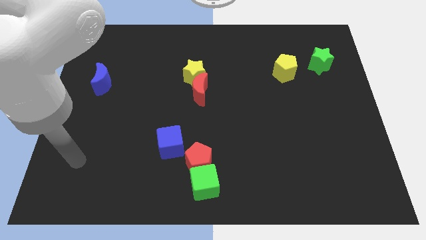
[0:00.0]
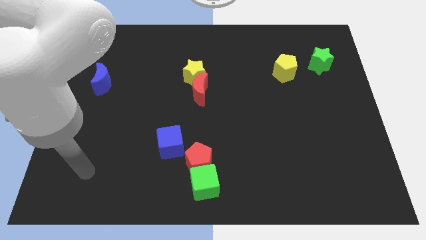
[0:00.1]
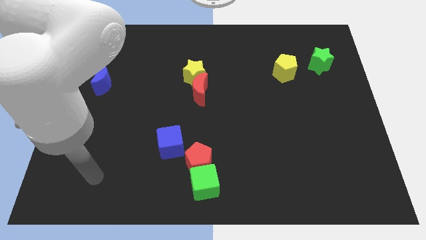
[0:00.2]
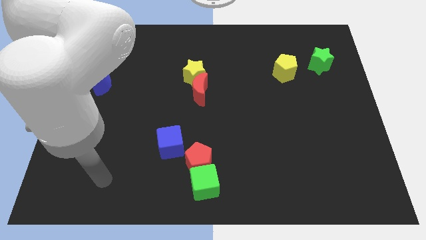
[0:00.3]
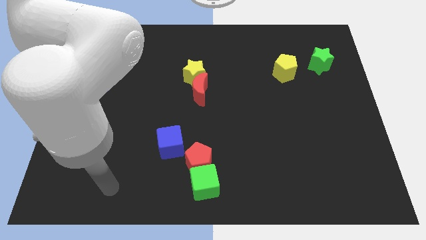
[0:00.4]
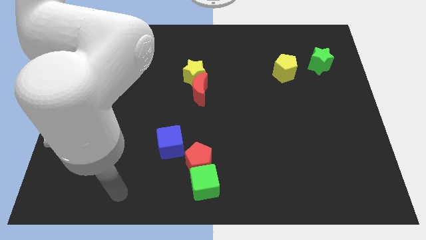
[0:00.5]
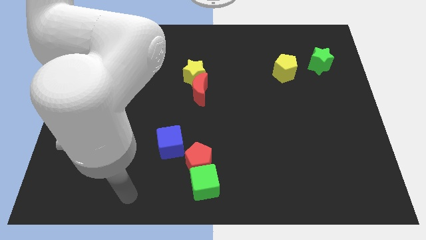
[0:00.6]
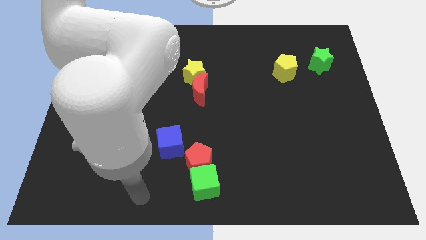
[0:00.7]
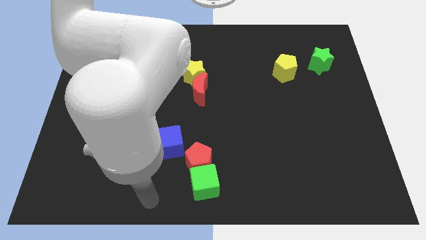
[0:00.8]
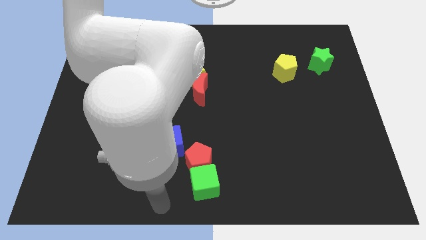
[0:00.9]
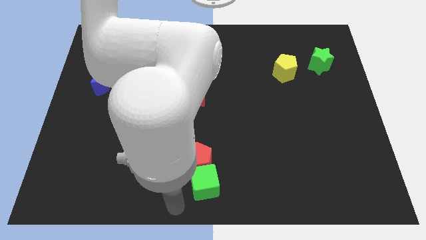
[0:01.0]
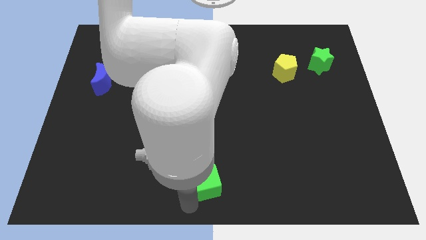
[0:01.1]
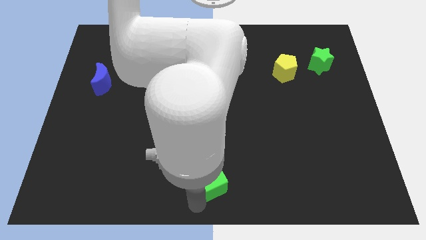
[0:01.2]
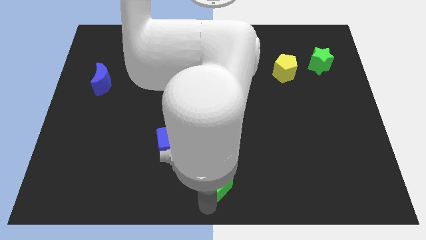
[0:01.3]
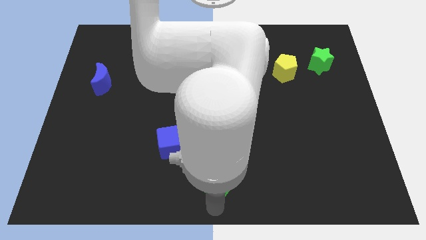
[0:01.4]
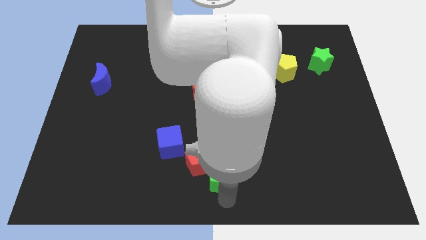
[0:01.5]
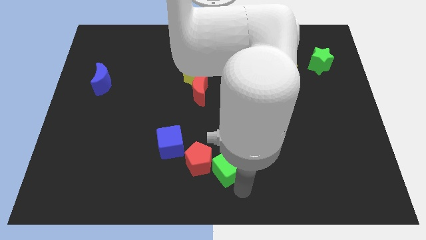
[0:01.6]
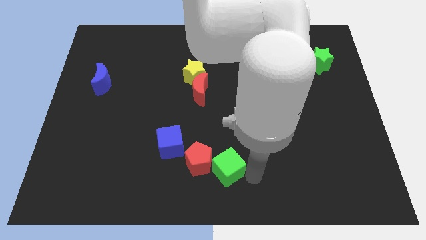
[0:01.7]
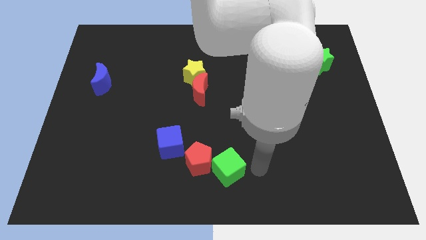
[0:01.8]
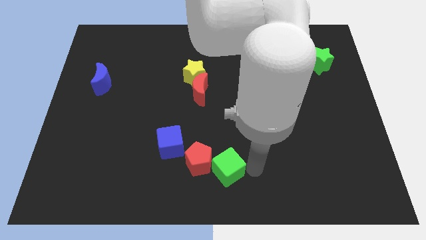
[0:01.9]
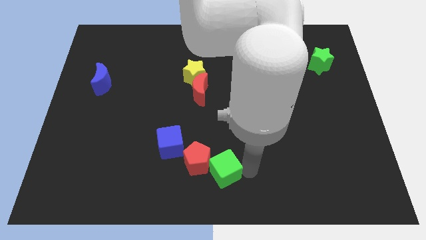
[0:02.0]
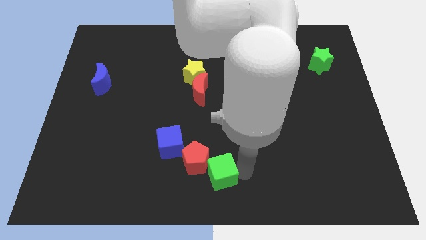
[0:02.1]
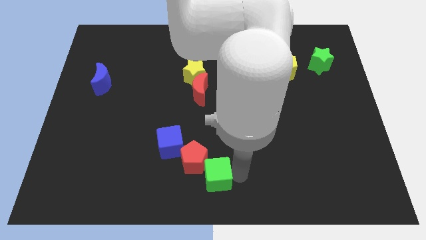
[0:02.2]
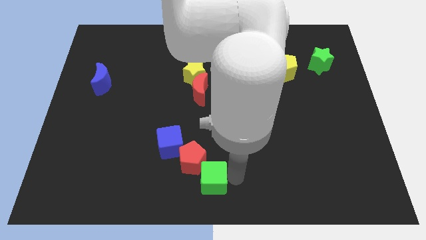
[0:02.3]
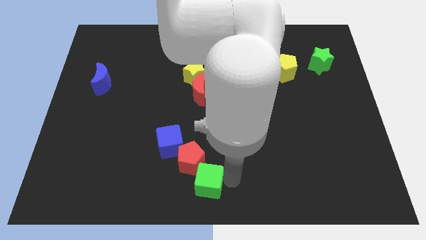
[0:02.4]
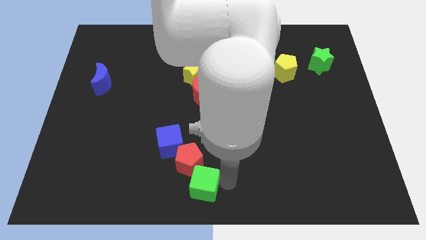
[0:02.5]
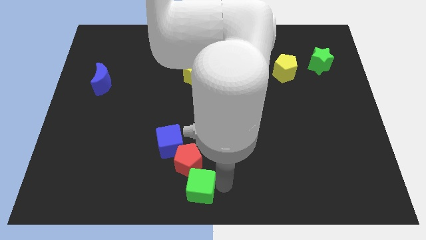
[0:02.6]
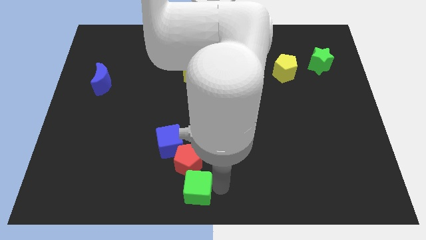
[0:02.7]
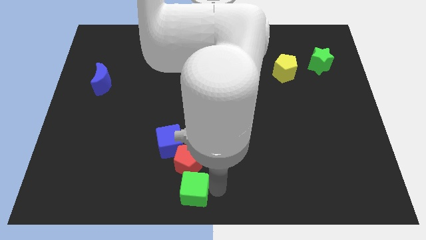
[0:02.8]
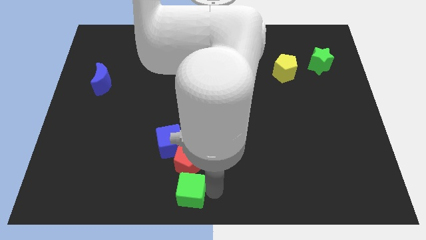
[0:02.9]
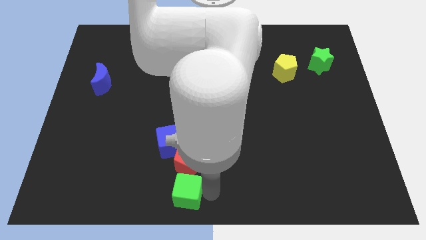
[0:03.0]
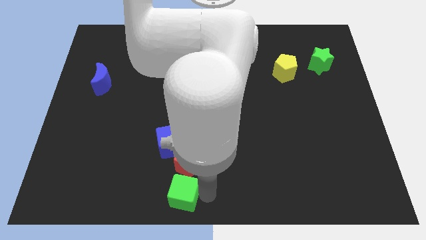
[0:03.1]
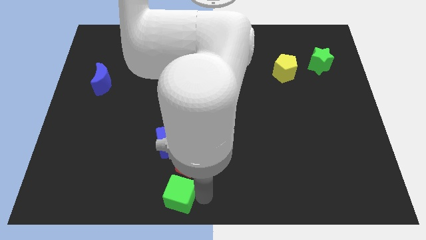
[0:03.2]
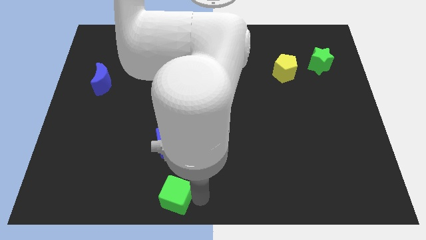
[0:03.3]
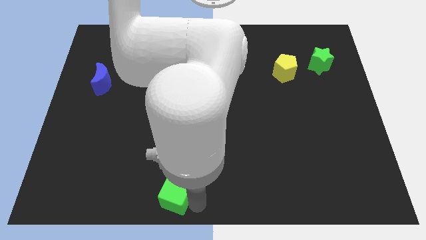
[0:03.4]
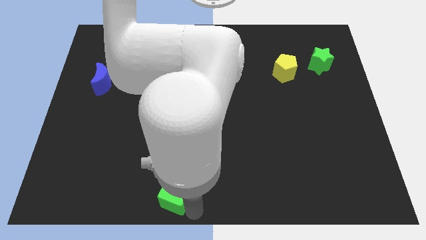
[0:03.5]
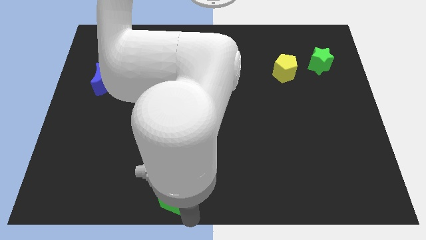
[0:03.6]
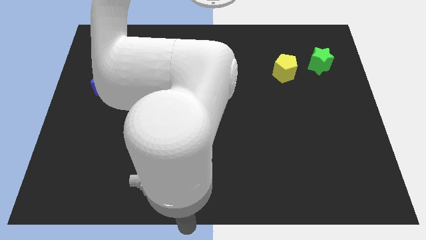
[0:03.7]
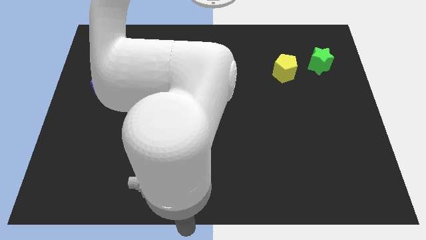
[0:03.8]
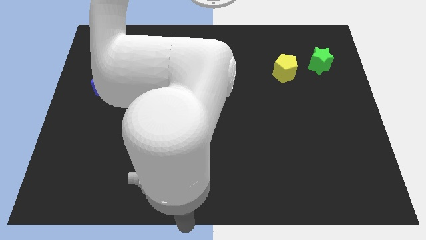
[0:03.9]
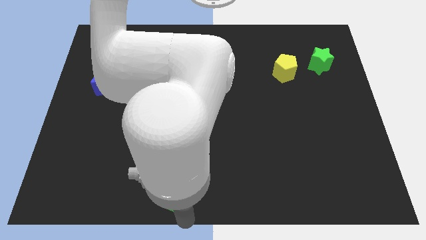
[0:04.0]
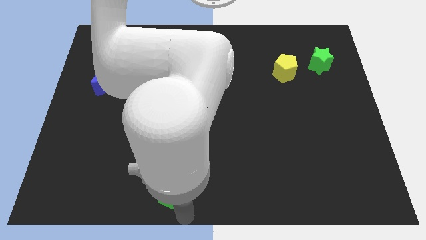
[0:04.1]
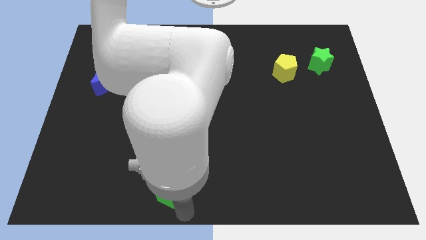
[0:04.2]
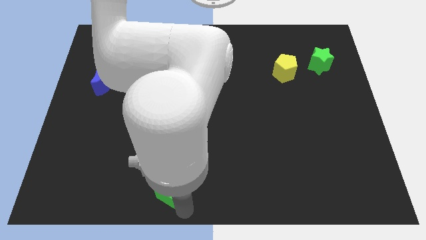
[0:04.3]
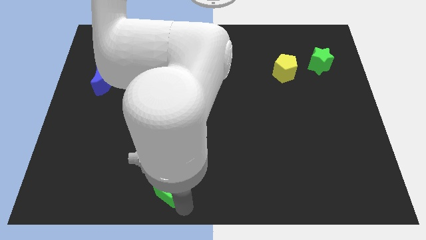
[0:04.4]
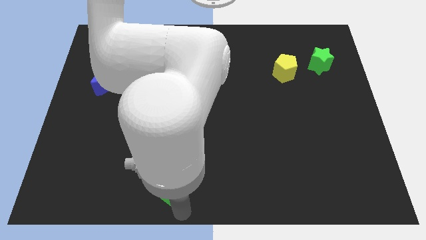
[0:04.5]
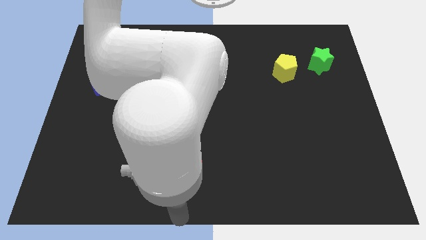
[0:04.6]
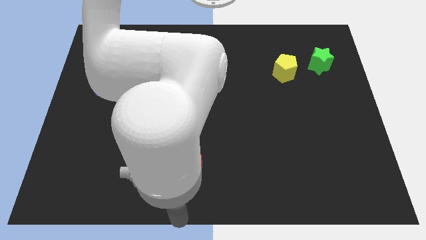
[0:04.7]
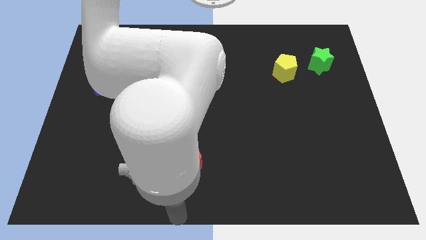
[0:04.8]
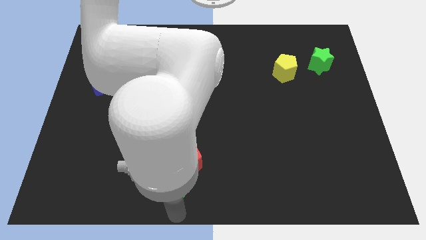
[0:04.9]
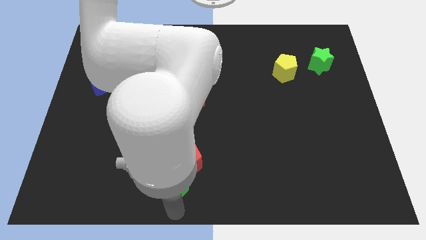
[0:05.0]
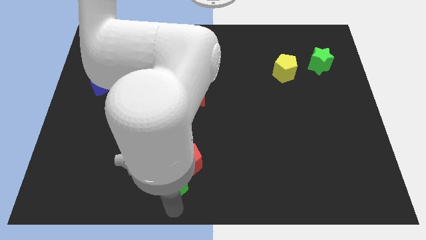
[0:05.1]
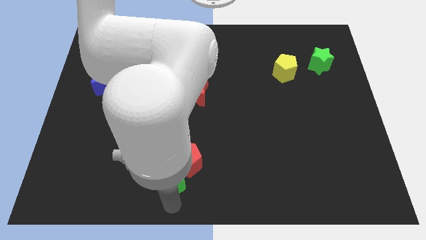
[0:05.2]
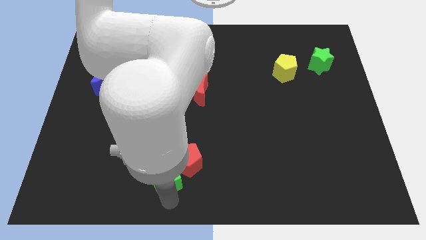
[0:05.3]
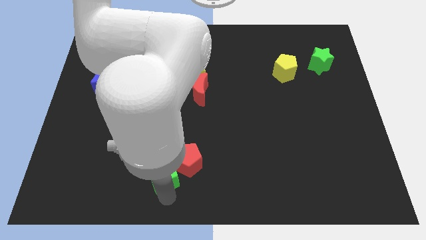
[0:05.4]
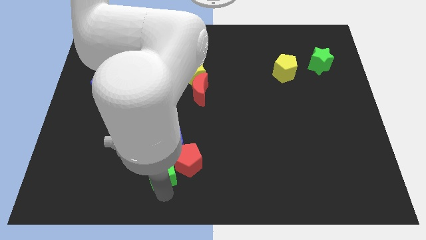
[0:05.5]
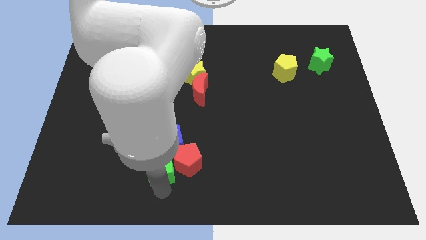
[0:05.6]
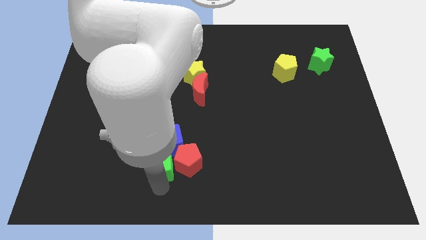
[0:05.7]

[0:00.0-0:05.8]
put the green cube next to the blue cube

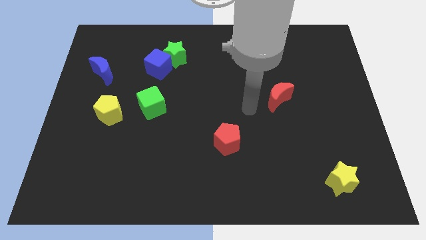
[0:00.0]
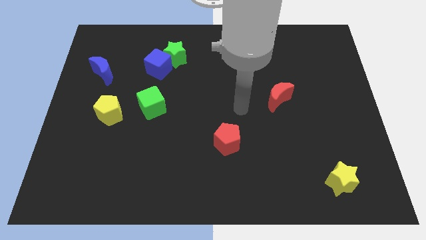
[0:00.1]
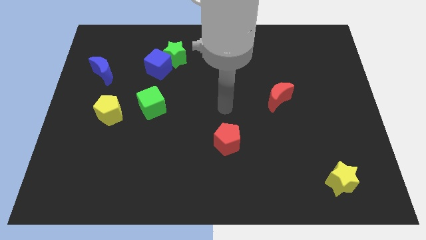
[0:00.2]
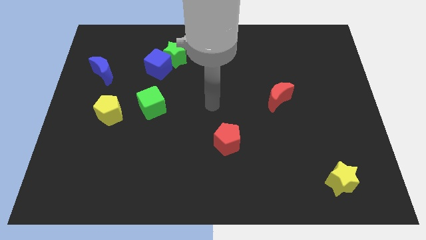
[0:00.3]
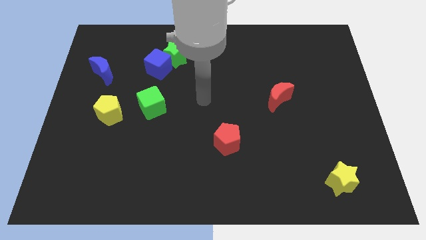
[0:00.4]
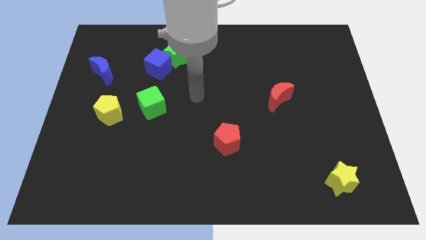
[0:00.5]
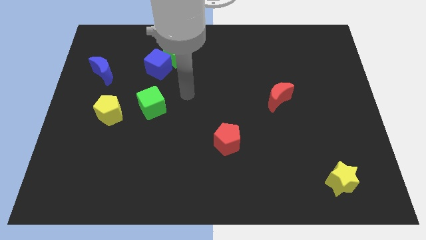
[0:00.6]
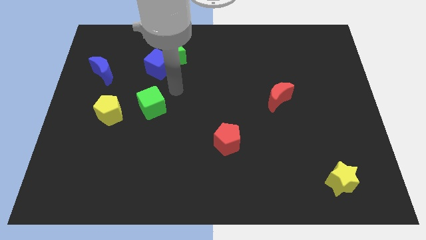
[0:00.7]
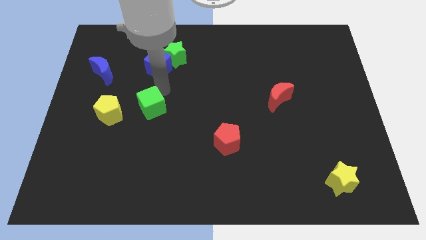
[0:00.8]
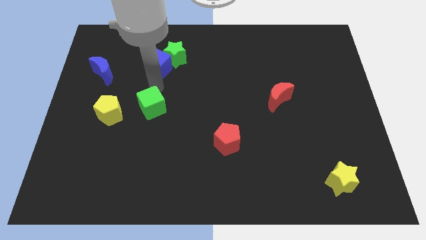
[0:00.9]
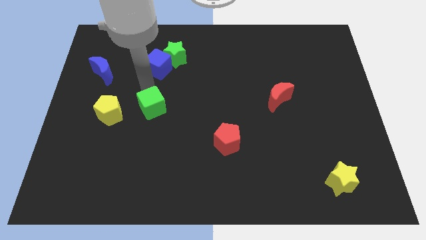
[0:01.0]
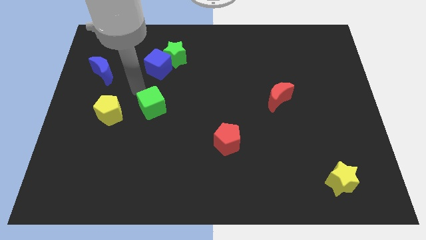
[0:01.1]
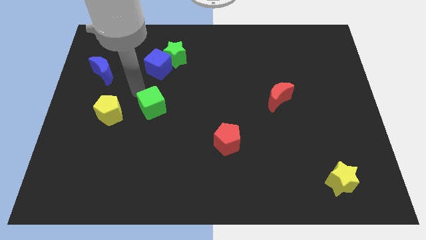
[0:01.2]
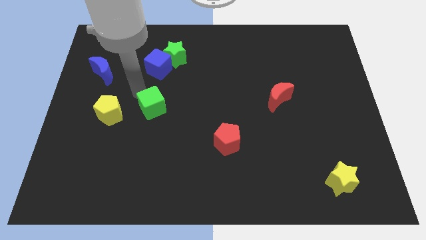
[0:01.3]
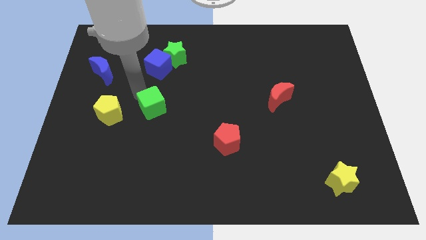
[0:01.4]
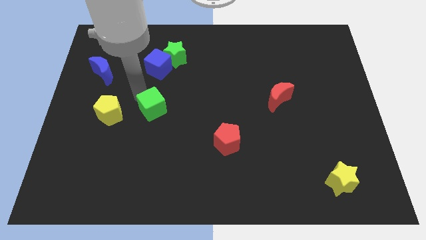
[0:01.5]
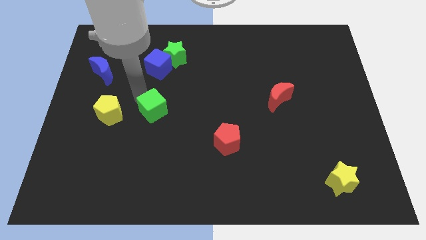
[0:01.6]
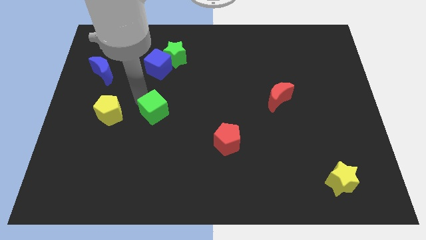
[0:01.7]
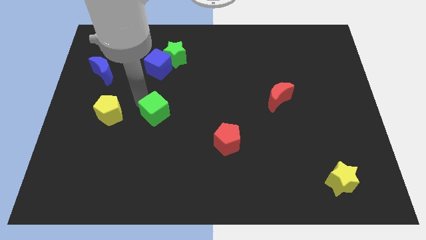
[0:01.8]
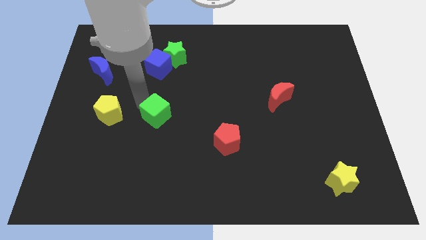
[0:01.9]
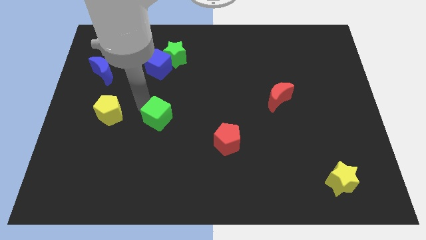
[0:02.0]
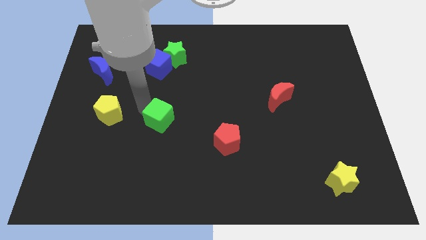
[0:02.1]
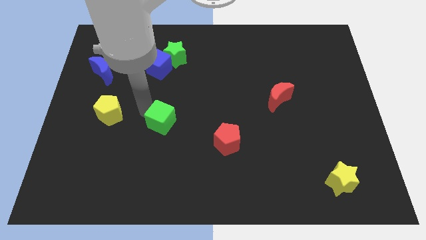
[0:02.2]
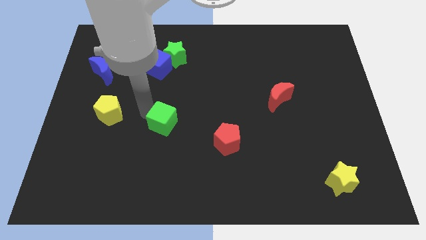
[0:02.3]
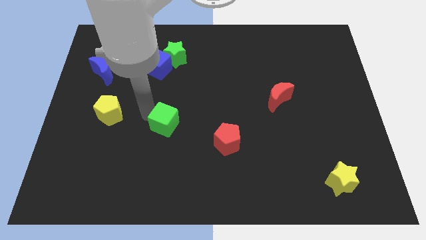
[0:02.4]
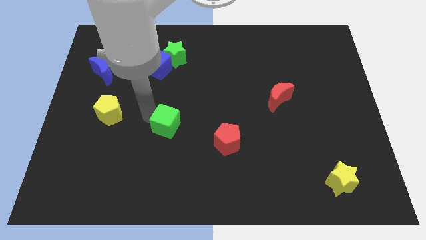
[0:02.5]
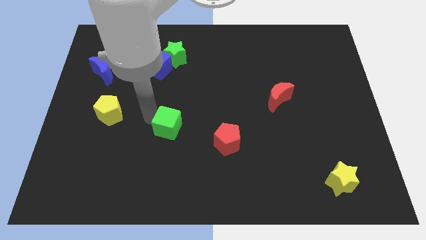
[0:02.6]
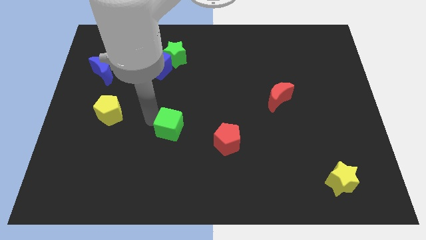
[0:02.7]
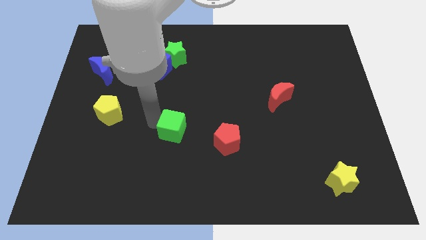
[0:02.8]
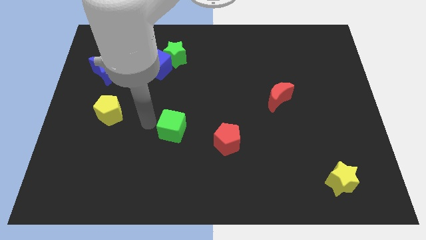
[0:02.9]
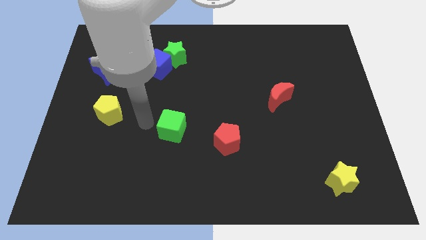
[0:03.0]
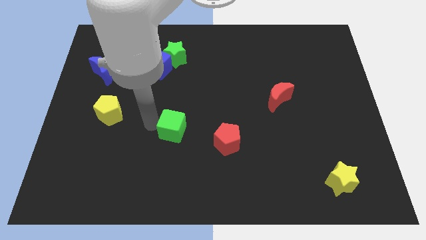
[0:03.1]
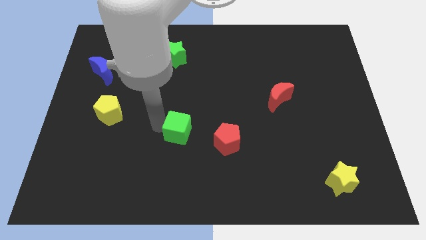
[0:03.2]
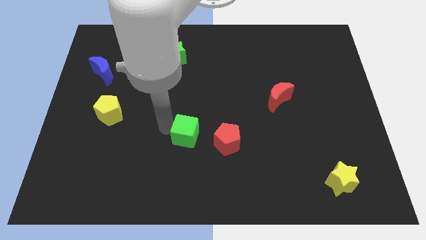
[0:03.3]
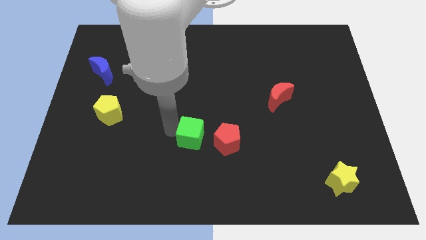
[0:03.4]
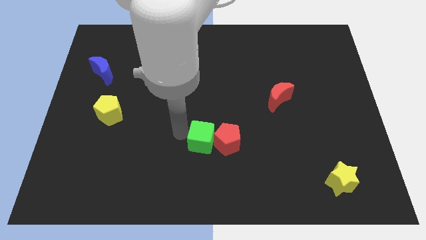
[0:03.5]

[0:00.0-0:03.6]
put the green cube close to the red pentagon
